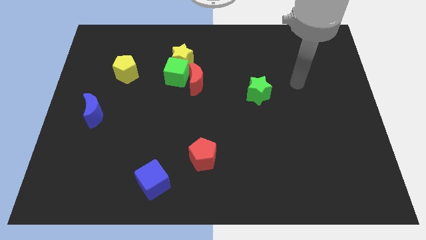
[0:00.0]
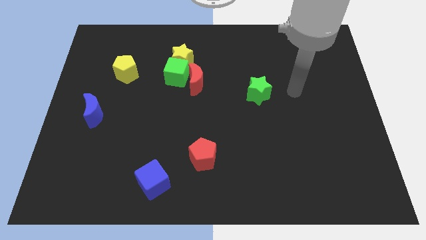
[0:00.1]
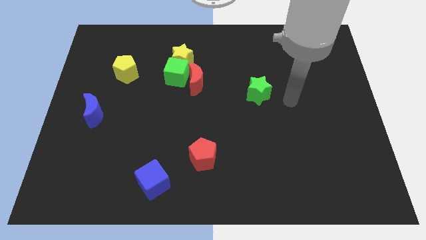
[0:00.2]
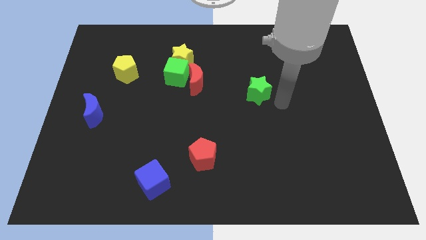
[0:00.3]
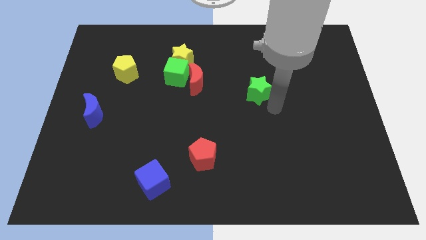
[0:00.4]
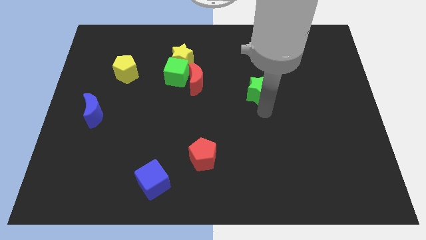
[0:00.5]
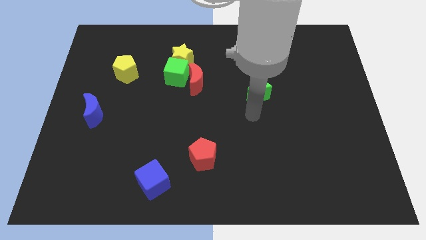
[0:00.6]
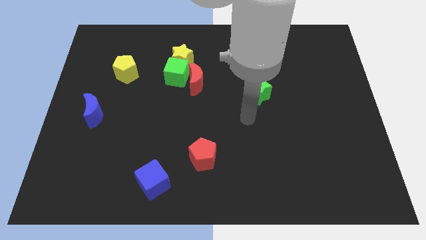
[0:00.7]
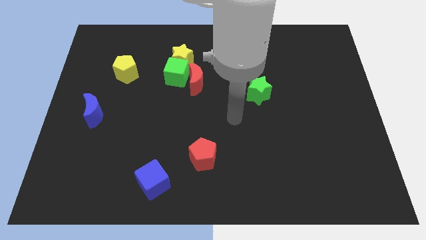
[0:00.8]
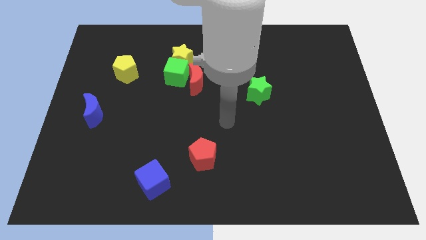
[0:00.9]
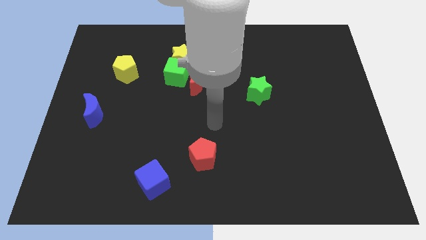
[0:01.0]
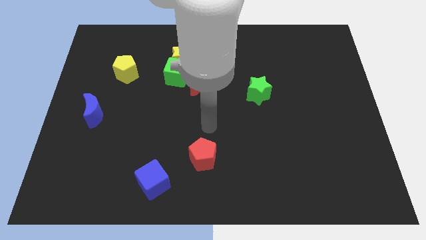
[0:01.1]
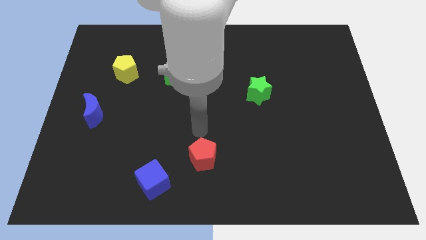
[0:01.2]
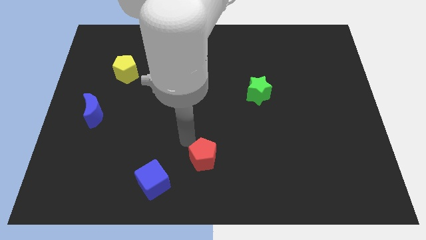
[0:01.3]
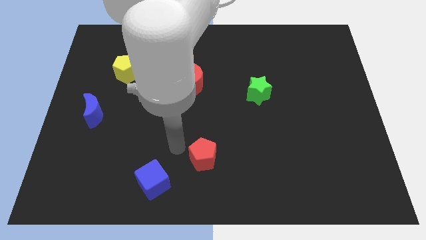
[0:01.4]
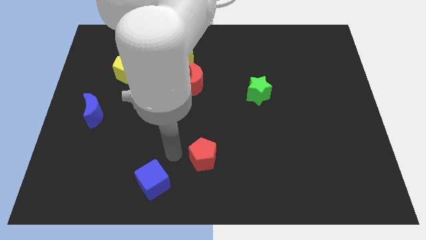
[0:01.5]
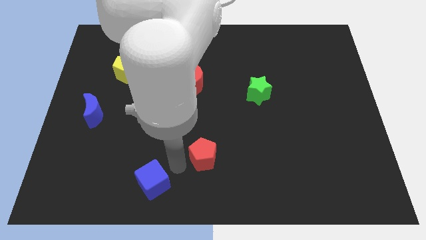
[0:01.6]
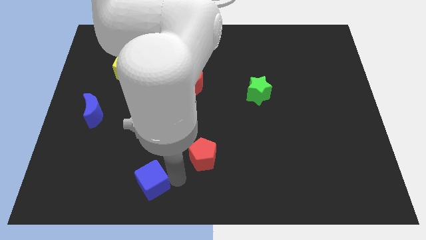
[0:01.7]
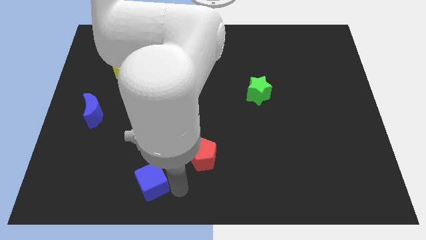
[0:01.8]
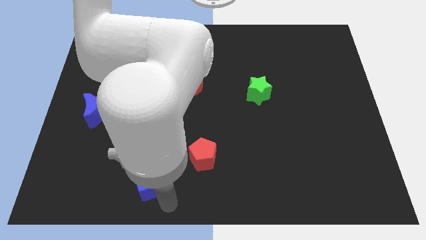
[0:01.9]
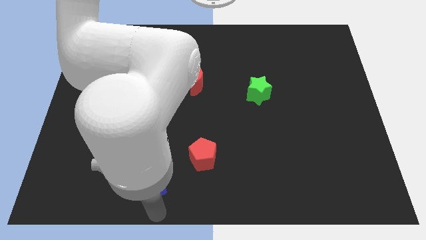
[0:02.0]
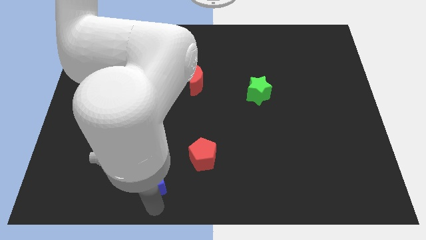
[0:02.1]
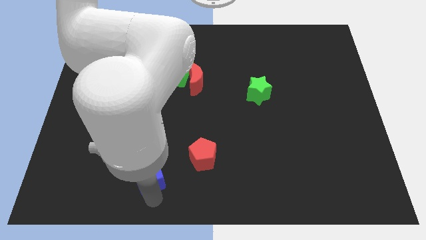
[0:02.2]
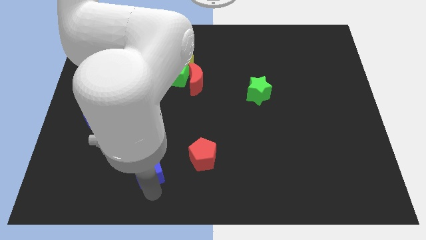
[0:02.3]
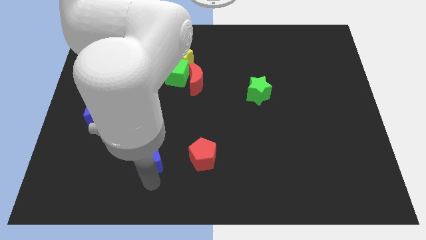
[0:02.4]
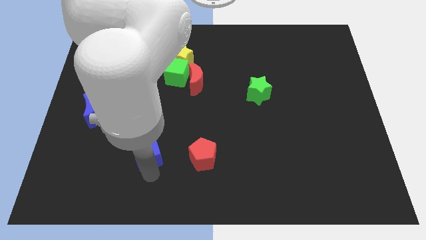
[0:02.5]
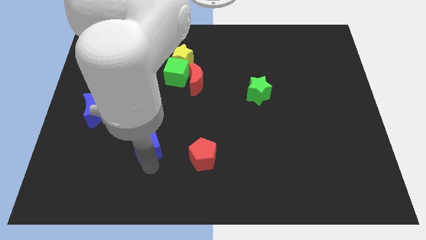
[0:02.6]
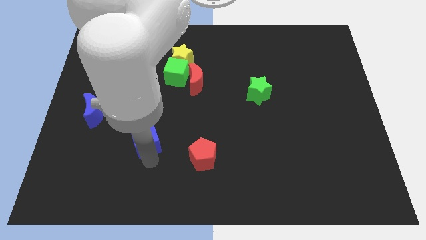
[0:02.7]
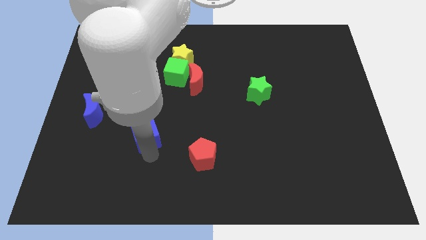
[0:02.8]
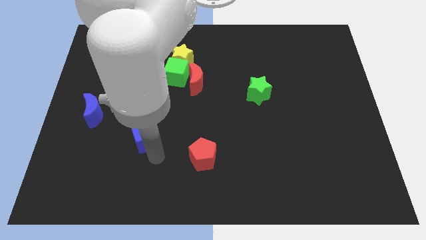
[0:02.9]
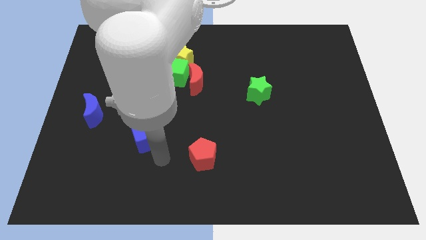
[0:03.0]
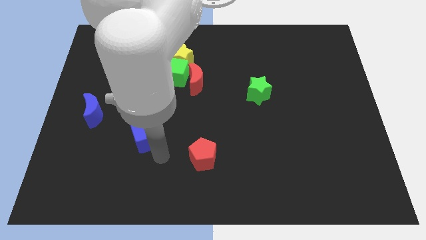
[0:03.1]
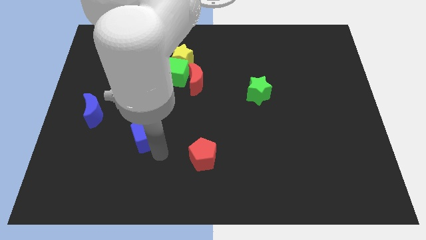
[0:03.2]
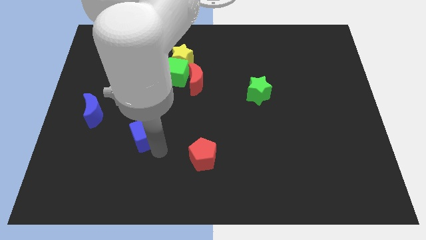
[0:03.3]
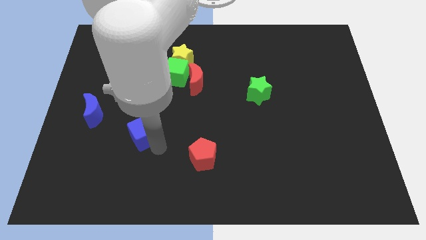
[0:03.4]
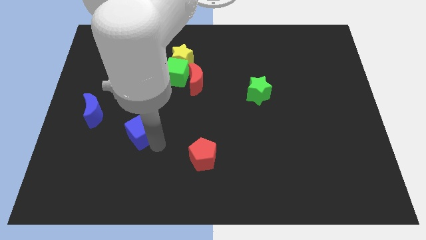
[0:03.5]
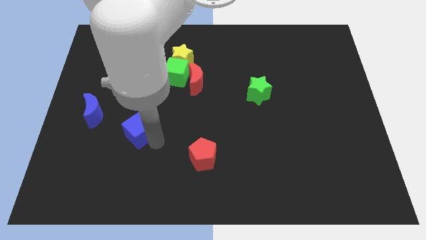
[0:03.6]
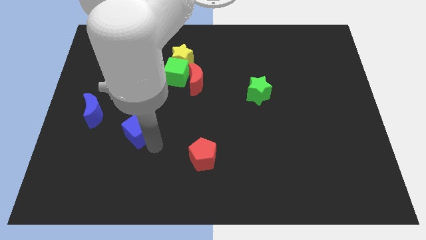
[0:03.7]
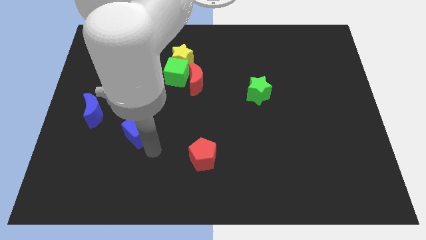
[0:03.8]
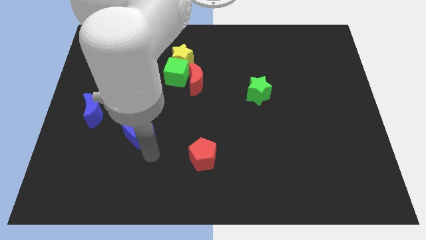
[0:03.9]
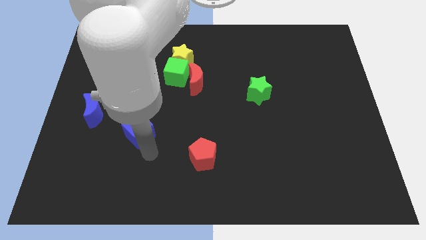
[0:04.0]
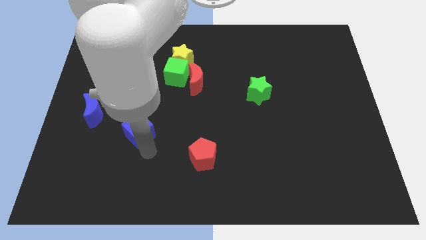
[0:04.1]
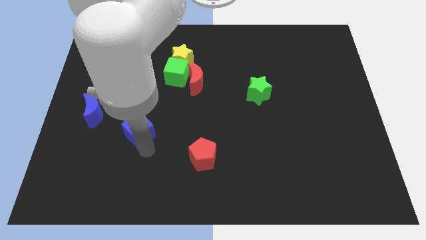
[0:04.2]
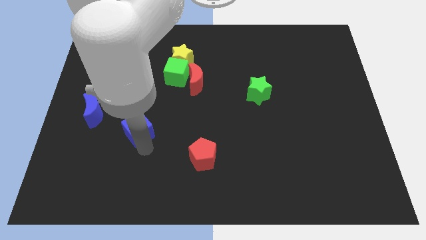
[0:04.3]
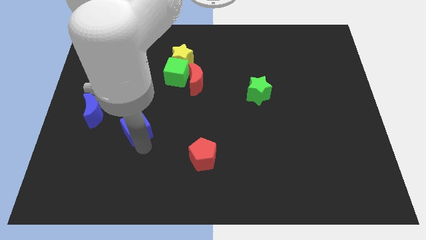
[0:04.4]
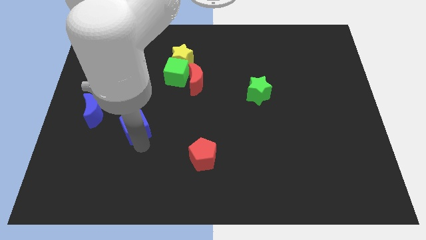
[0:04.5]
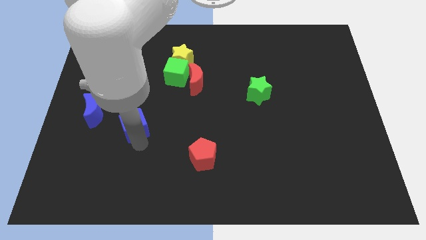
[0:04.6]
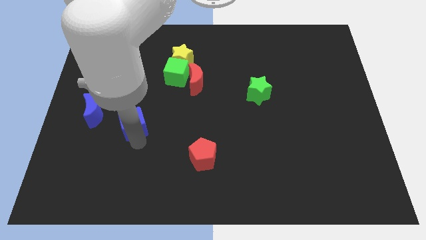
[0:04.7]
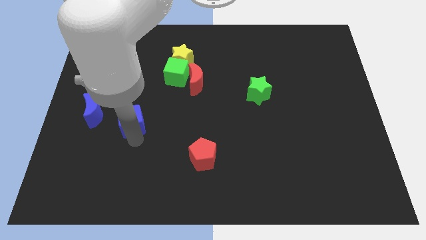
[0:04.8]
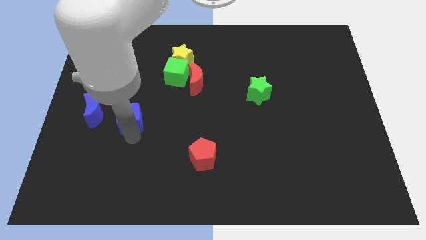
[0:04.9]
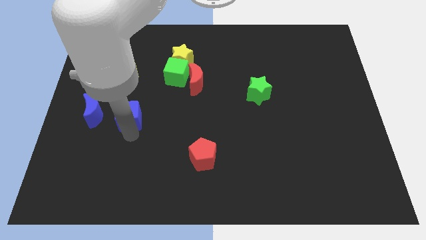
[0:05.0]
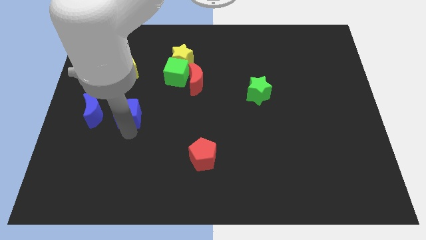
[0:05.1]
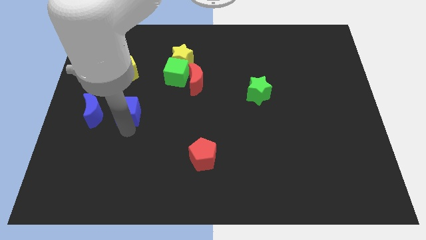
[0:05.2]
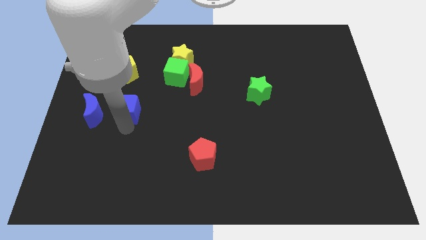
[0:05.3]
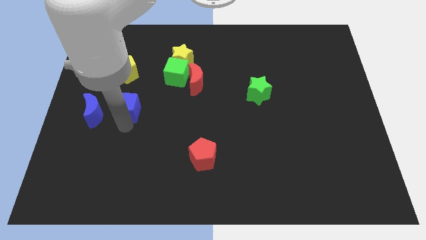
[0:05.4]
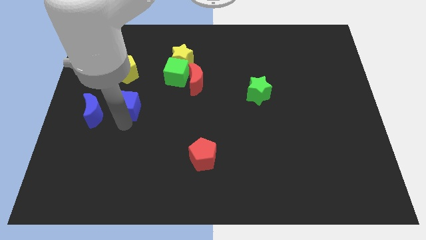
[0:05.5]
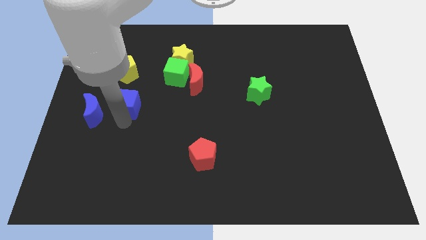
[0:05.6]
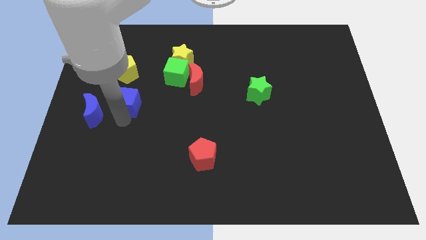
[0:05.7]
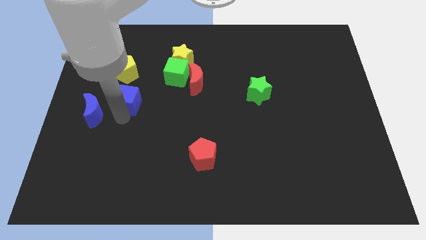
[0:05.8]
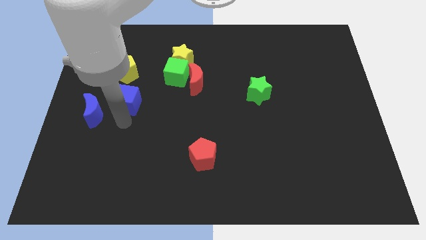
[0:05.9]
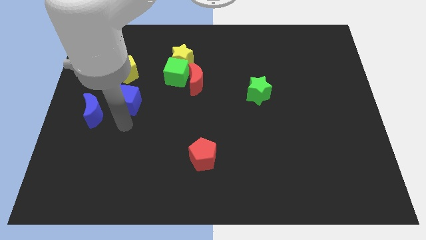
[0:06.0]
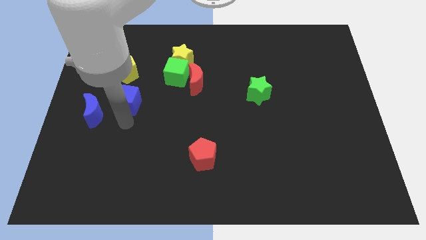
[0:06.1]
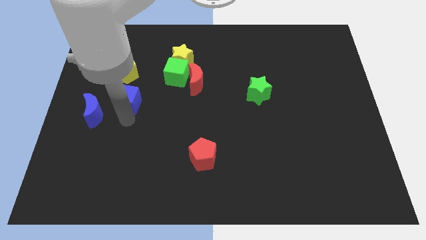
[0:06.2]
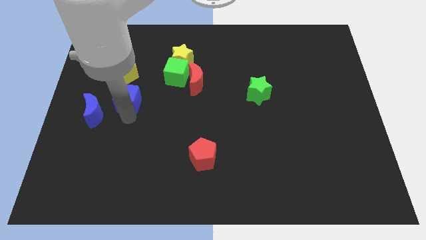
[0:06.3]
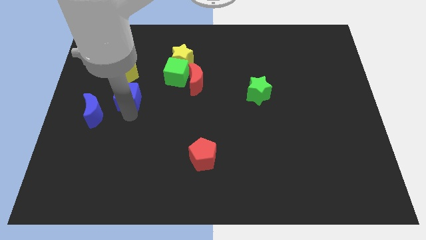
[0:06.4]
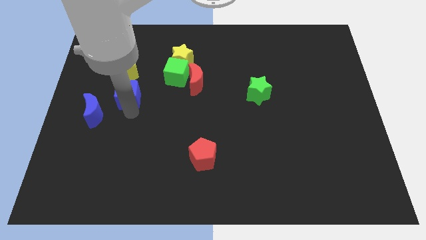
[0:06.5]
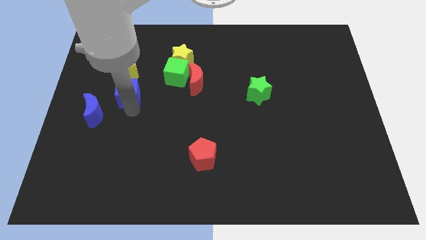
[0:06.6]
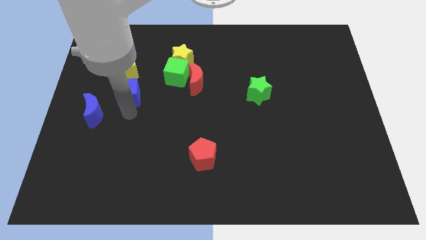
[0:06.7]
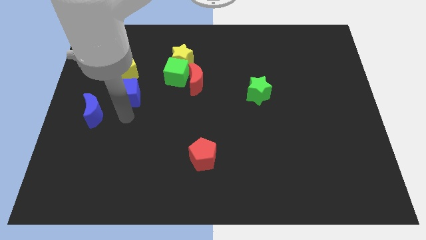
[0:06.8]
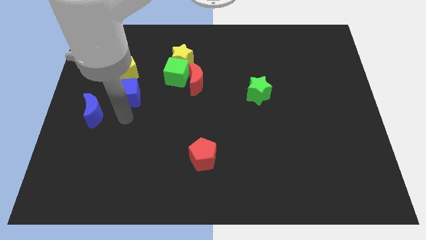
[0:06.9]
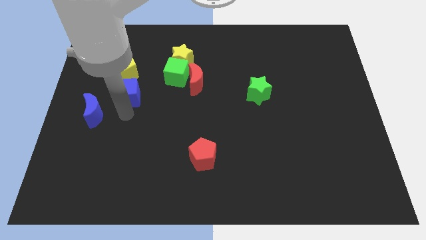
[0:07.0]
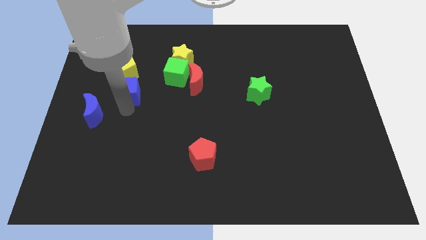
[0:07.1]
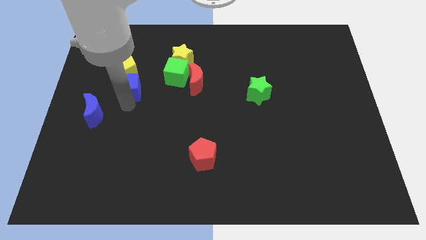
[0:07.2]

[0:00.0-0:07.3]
push the blue cube towards the yellow pentagon

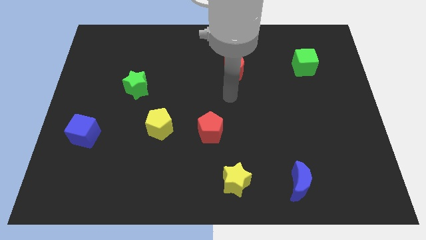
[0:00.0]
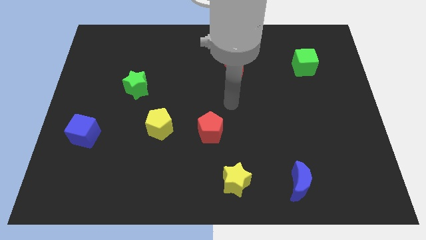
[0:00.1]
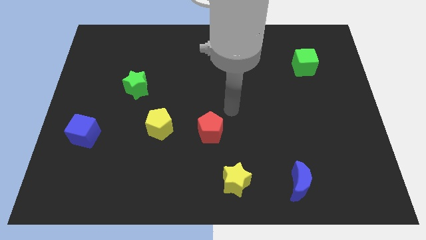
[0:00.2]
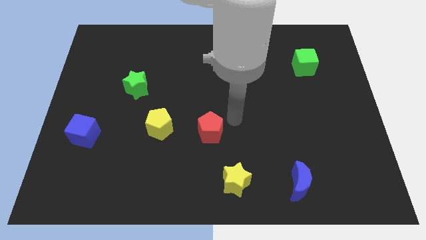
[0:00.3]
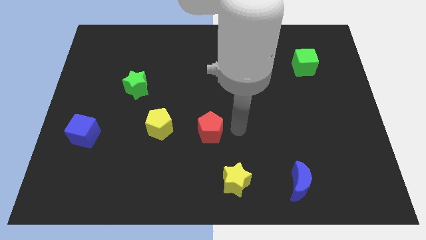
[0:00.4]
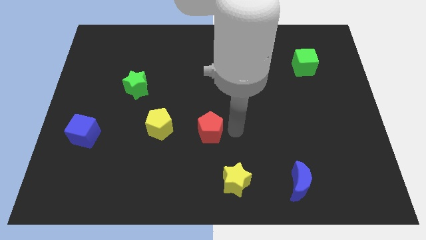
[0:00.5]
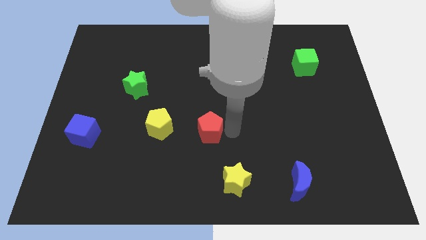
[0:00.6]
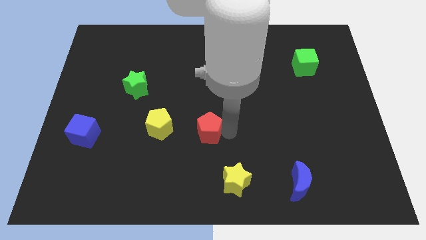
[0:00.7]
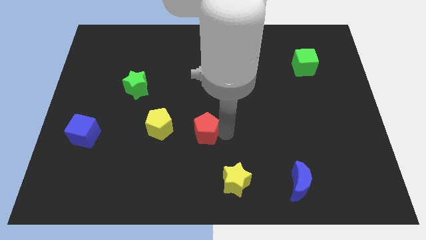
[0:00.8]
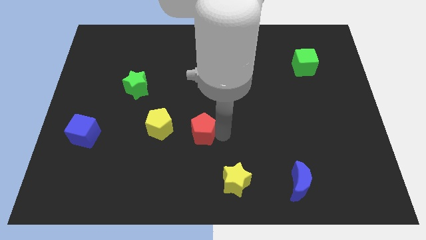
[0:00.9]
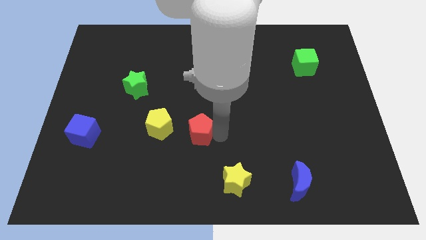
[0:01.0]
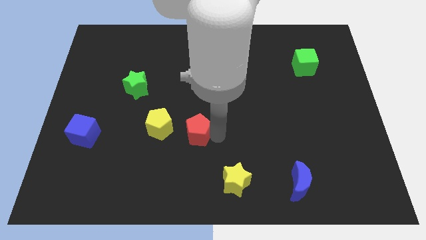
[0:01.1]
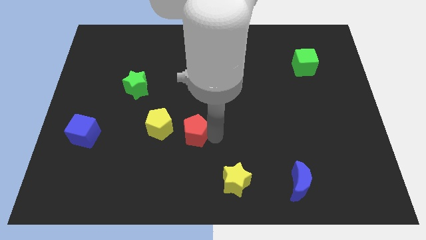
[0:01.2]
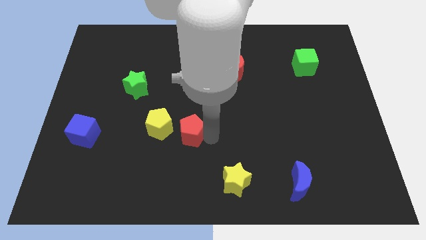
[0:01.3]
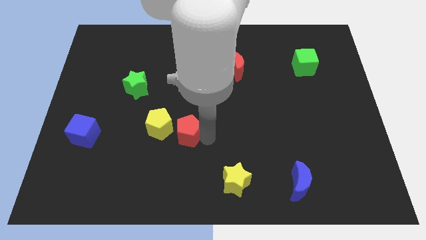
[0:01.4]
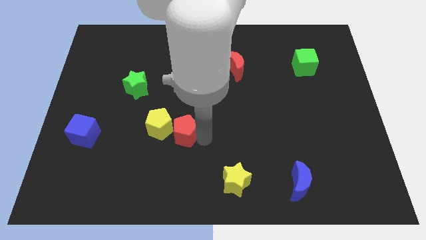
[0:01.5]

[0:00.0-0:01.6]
slide the red pentagon towards the yellow pentagon
